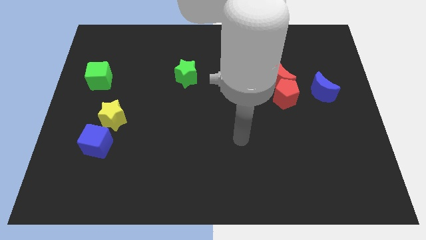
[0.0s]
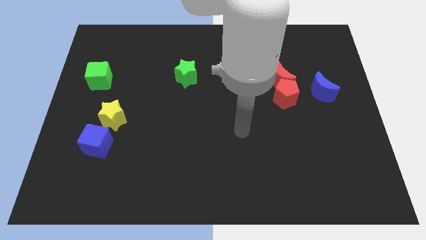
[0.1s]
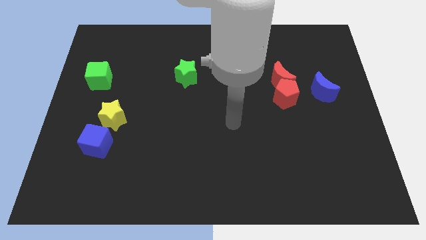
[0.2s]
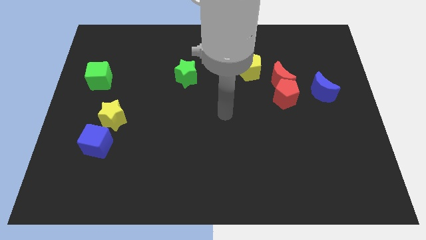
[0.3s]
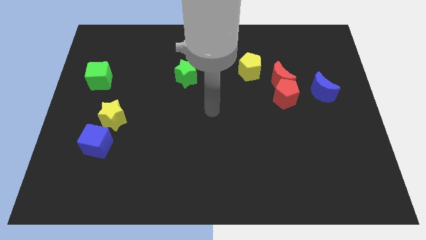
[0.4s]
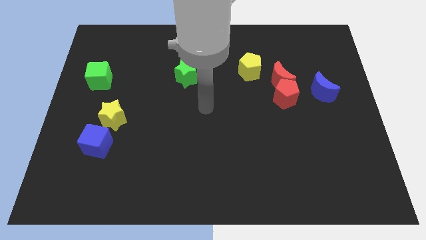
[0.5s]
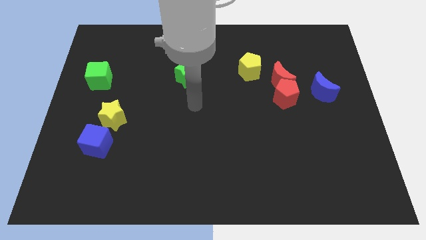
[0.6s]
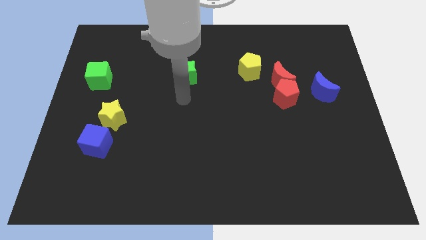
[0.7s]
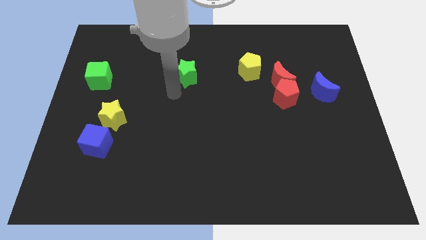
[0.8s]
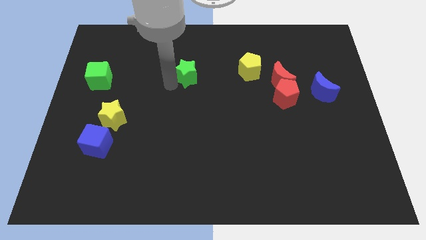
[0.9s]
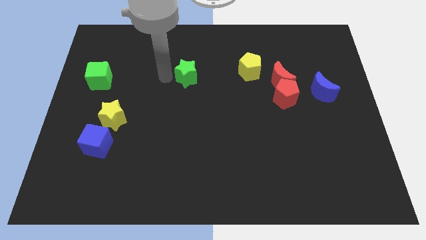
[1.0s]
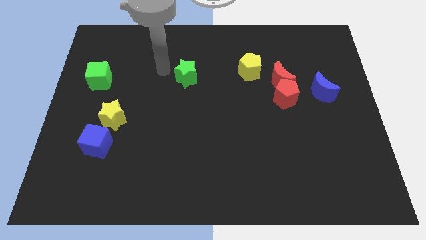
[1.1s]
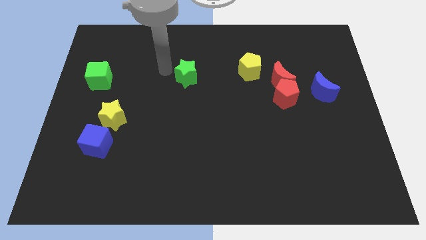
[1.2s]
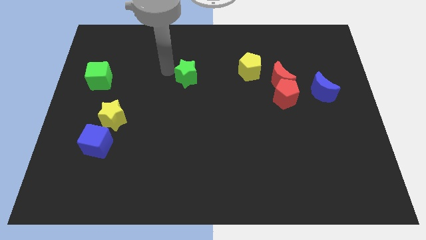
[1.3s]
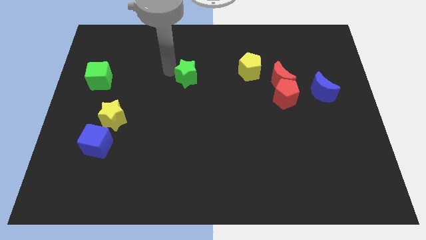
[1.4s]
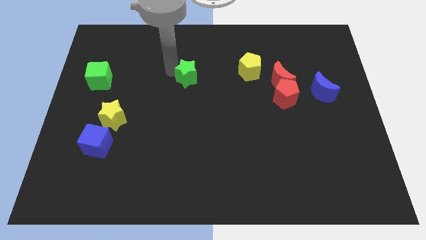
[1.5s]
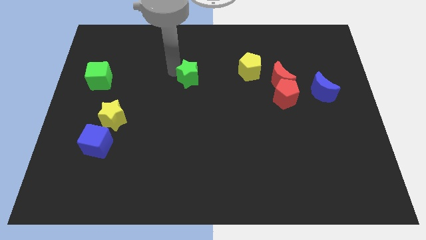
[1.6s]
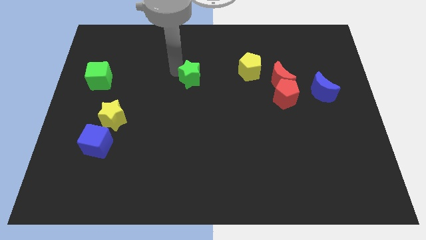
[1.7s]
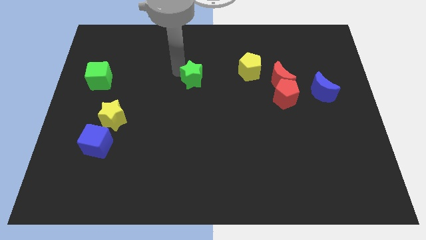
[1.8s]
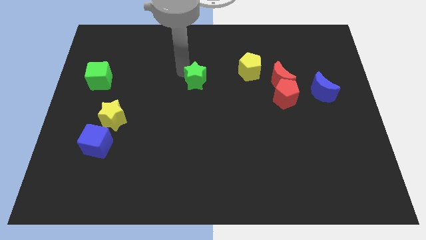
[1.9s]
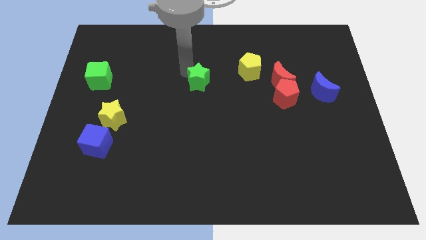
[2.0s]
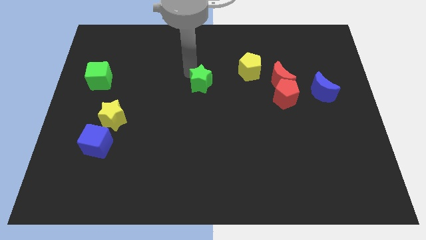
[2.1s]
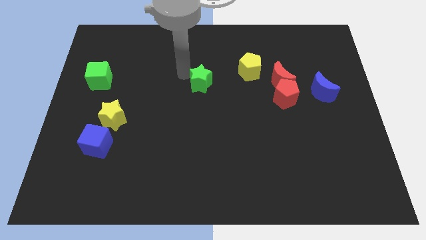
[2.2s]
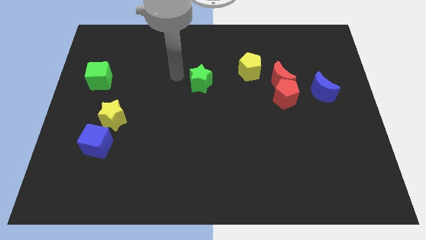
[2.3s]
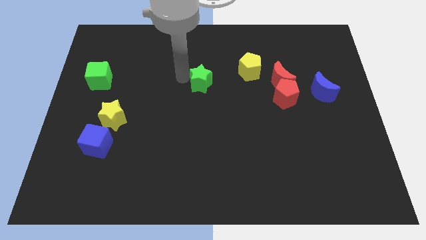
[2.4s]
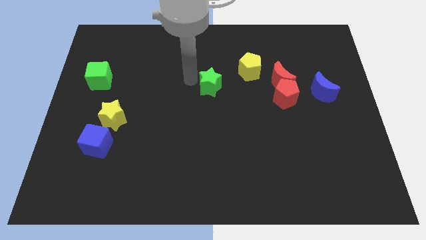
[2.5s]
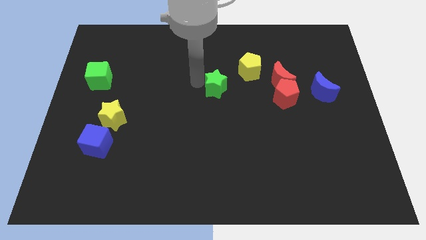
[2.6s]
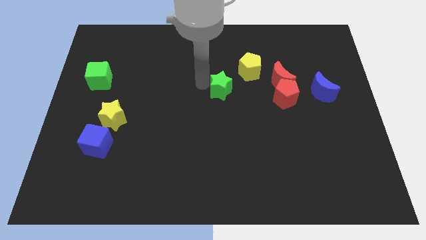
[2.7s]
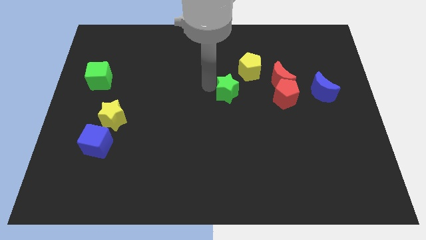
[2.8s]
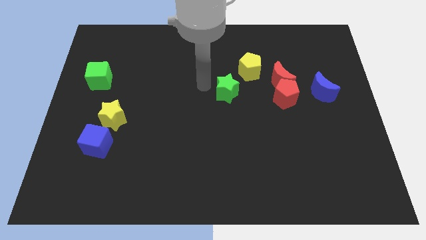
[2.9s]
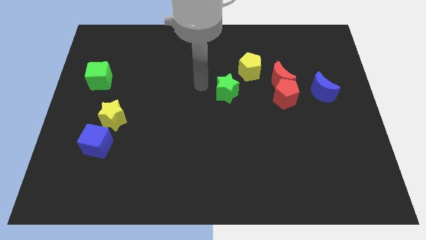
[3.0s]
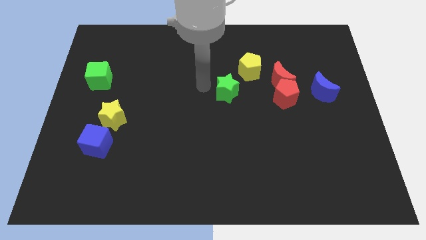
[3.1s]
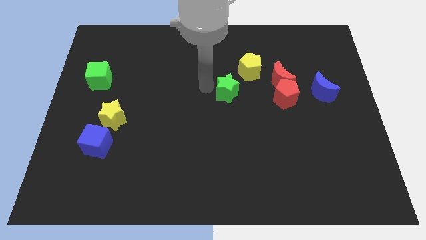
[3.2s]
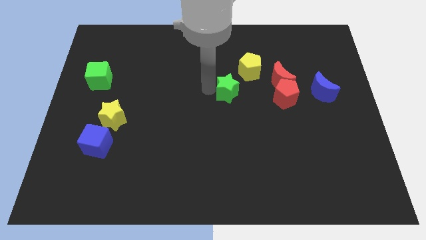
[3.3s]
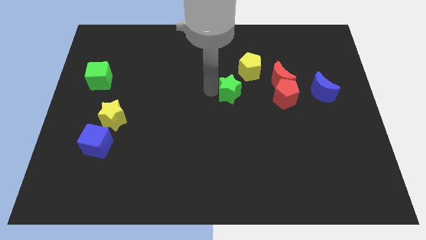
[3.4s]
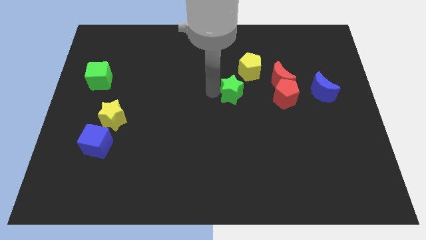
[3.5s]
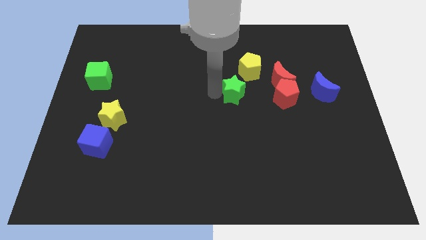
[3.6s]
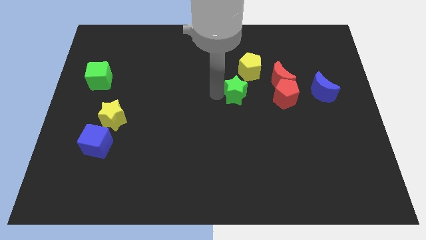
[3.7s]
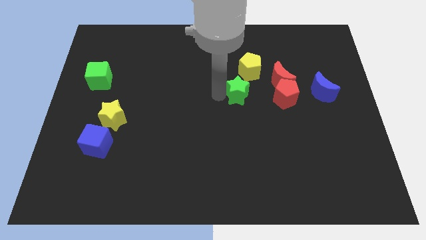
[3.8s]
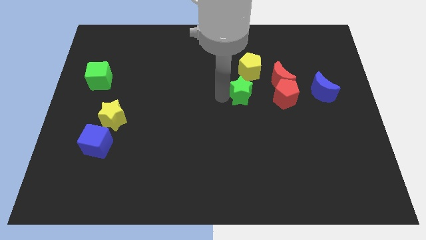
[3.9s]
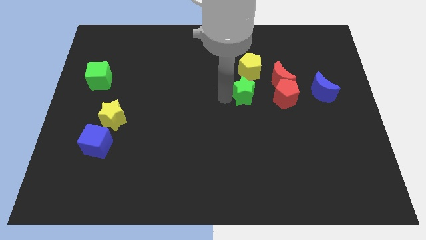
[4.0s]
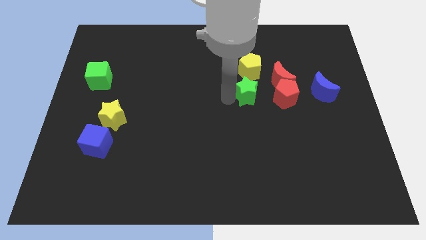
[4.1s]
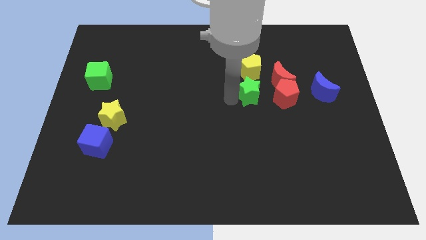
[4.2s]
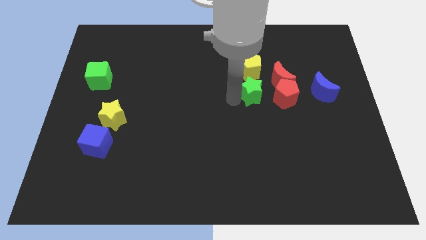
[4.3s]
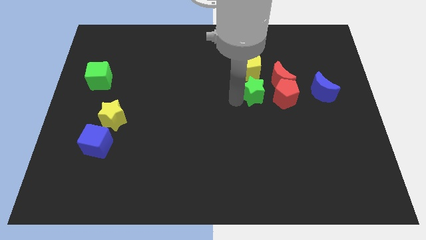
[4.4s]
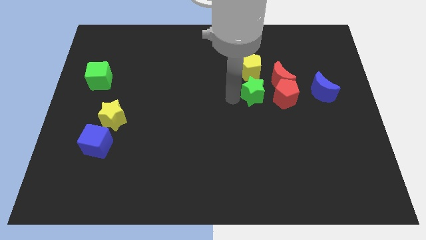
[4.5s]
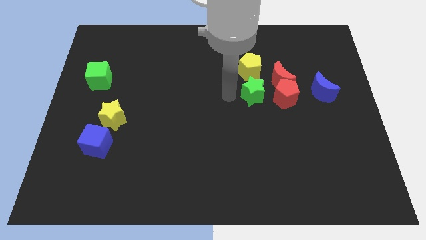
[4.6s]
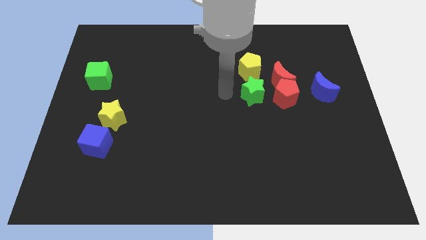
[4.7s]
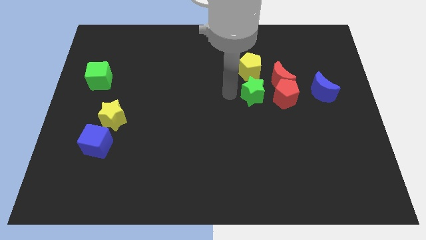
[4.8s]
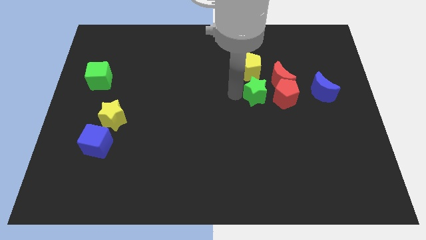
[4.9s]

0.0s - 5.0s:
move the green star diagonally up and to the left of the red pentagon

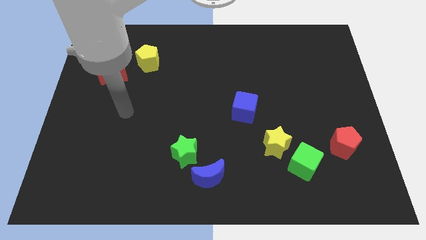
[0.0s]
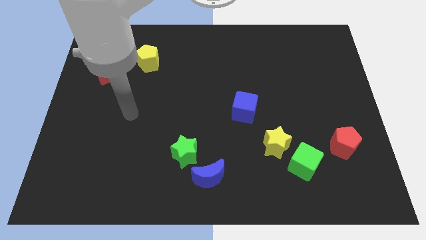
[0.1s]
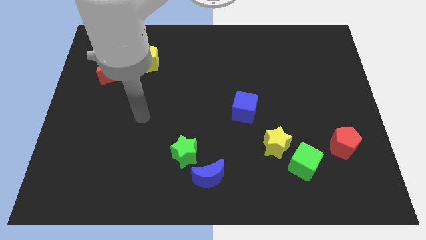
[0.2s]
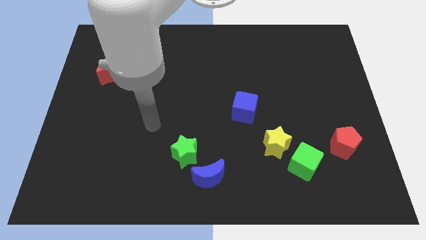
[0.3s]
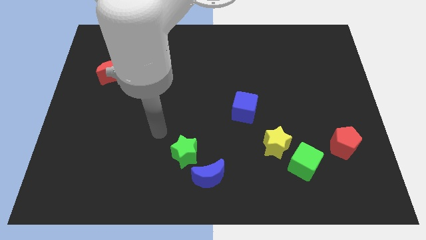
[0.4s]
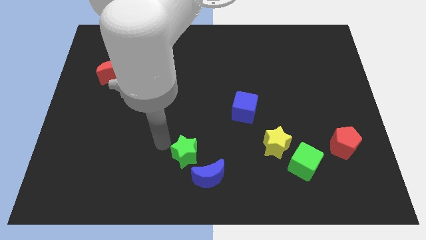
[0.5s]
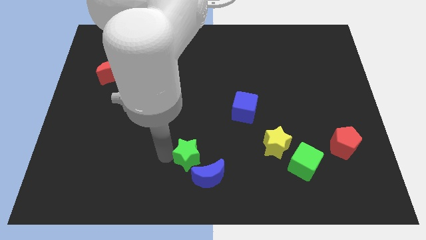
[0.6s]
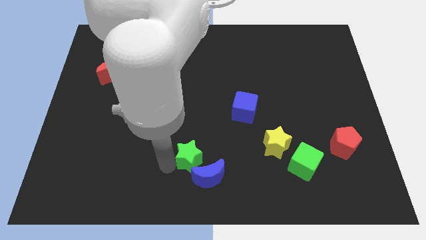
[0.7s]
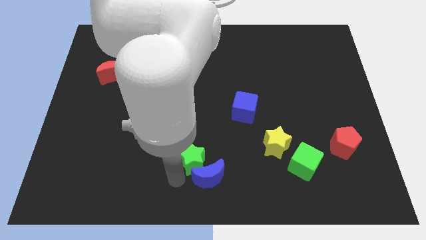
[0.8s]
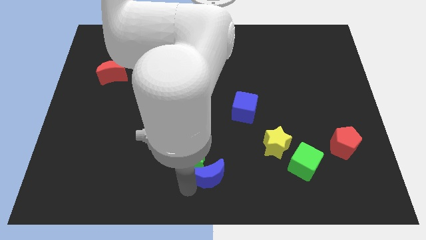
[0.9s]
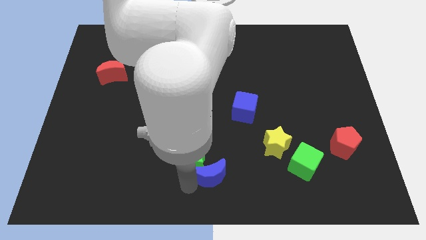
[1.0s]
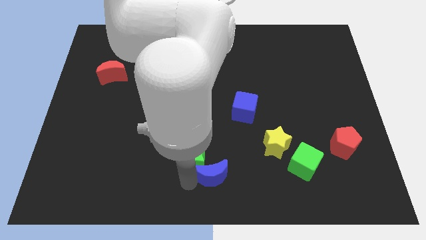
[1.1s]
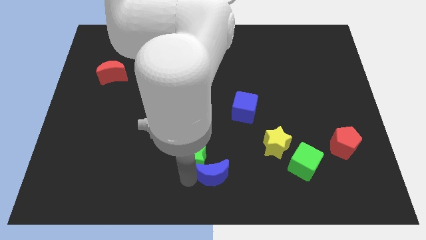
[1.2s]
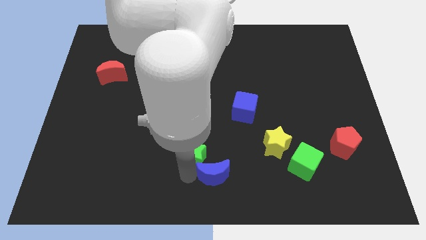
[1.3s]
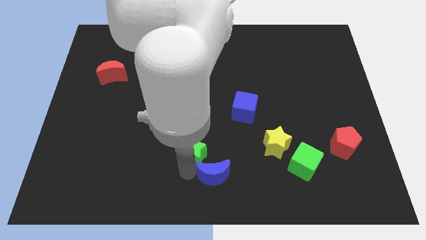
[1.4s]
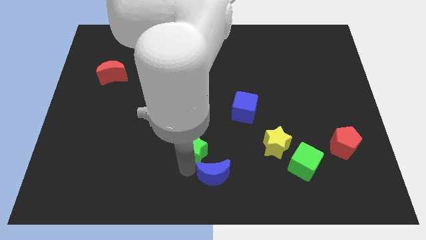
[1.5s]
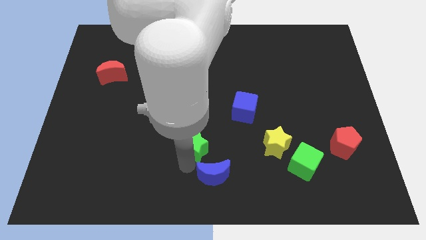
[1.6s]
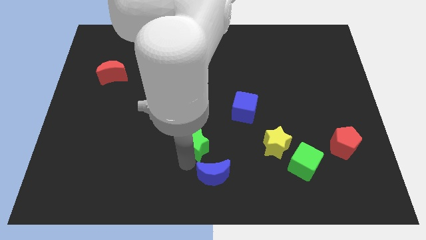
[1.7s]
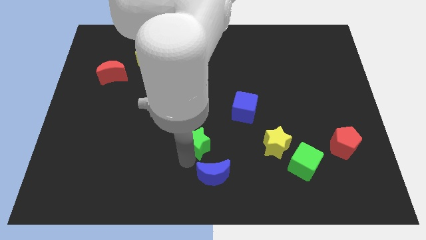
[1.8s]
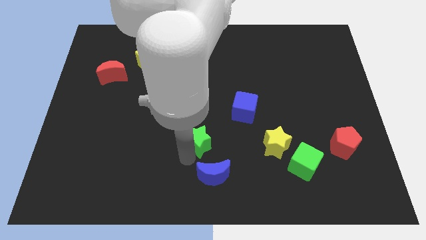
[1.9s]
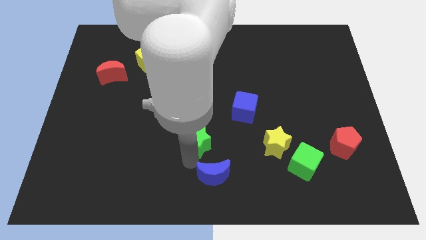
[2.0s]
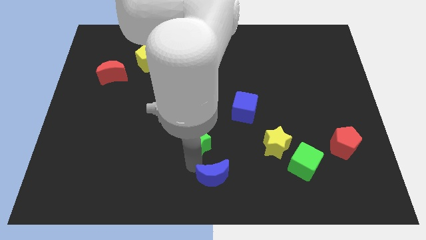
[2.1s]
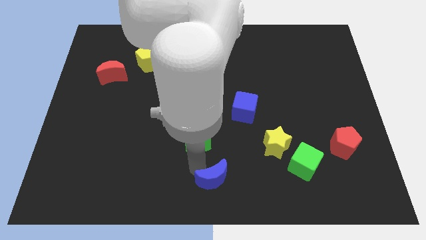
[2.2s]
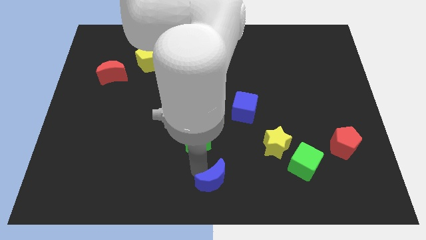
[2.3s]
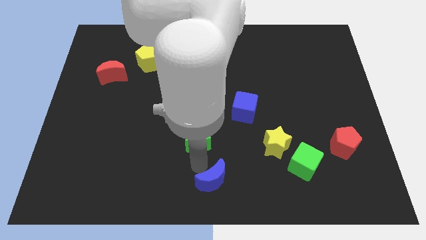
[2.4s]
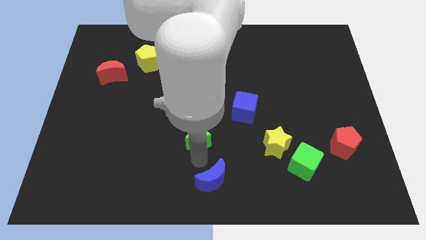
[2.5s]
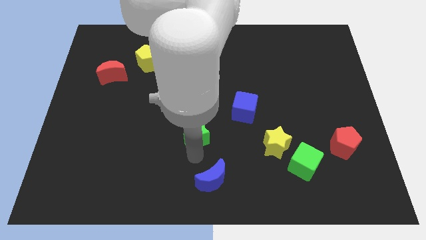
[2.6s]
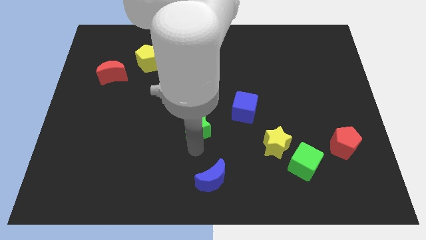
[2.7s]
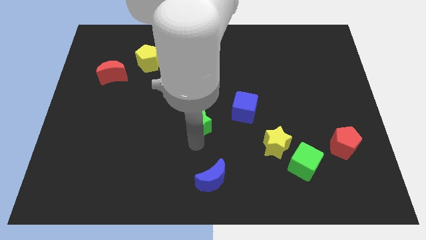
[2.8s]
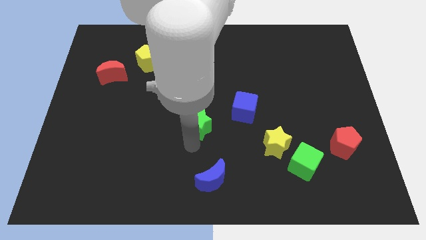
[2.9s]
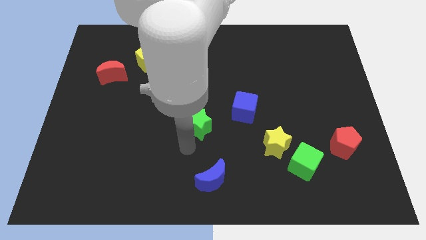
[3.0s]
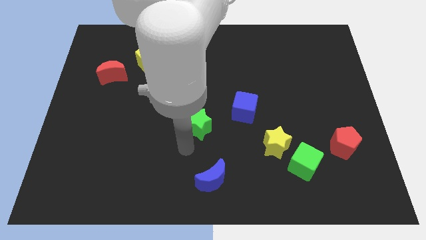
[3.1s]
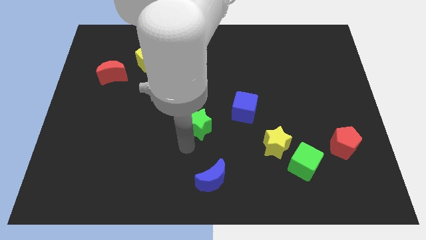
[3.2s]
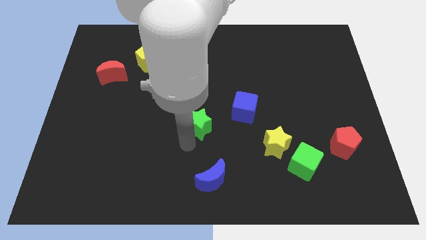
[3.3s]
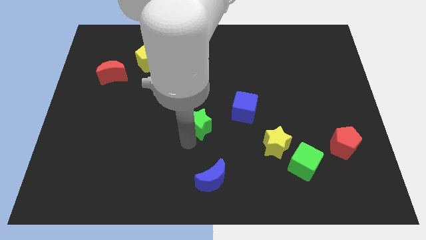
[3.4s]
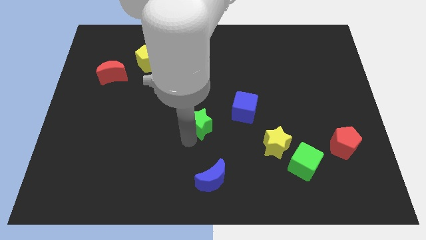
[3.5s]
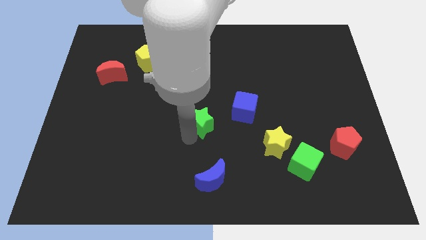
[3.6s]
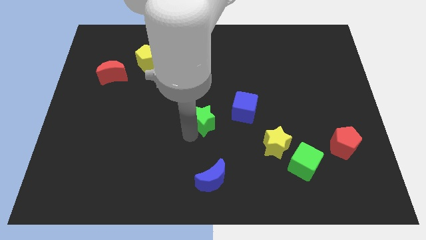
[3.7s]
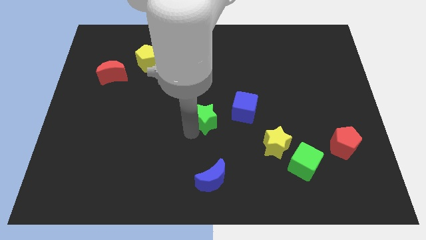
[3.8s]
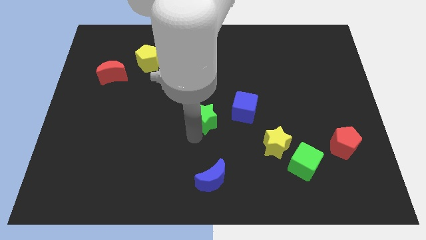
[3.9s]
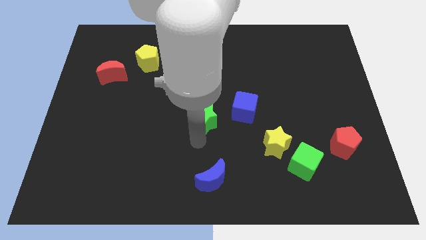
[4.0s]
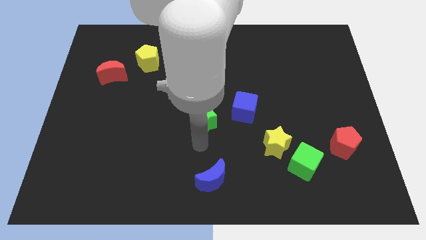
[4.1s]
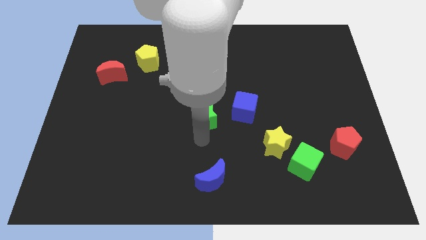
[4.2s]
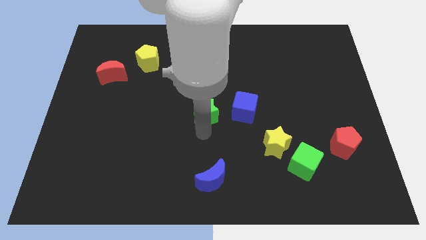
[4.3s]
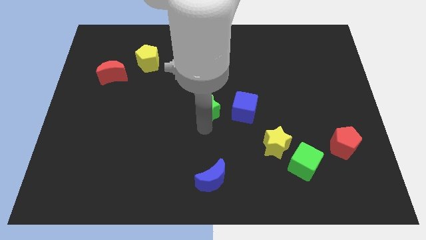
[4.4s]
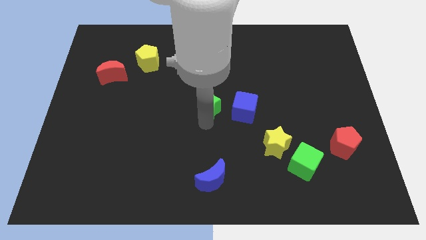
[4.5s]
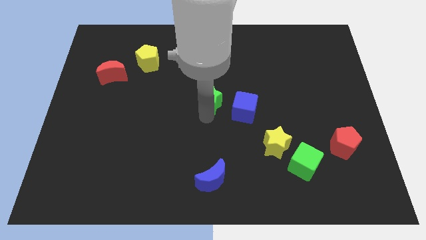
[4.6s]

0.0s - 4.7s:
push the green star to the top left side of the blue cube
